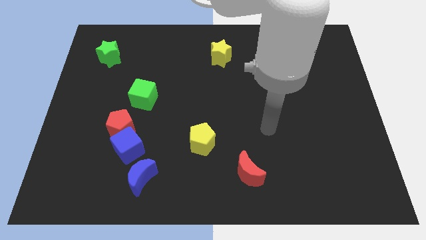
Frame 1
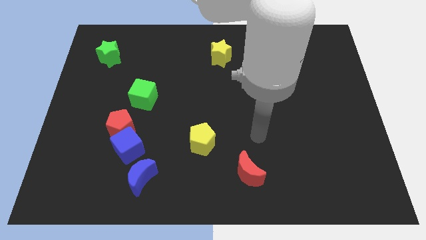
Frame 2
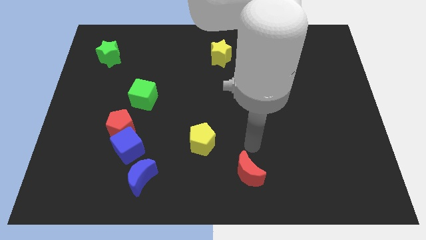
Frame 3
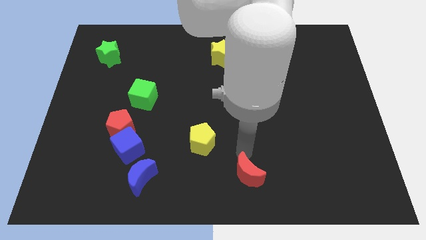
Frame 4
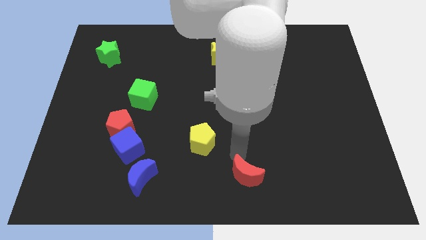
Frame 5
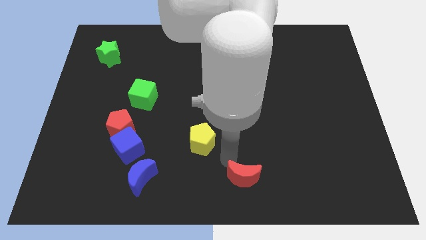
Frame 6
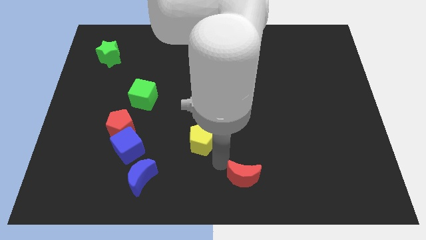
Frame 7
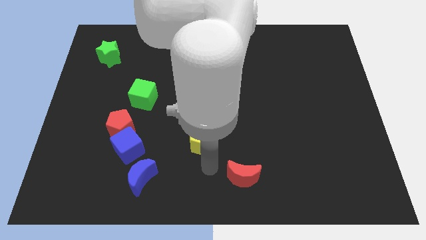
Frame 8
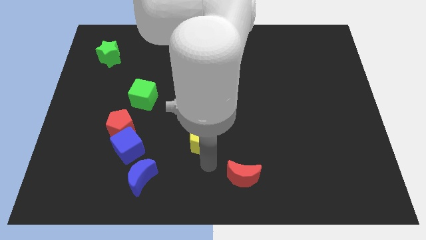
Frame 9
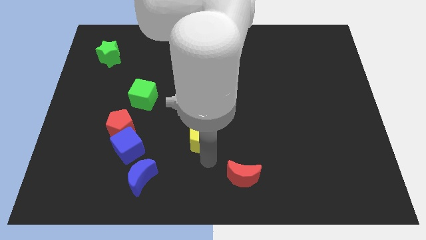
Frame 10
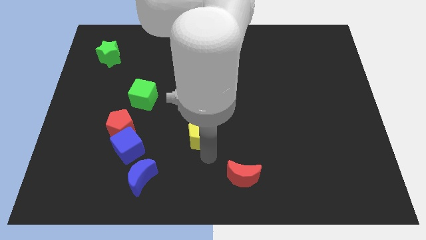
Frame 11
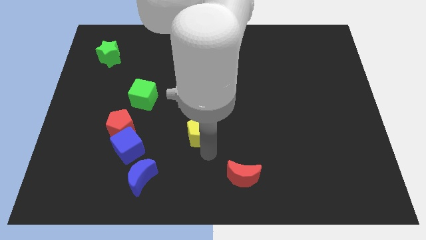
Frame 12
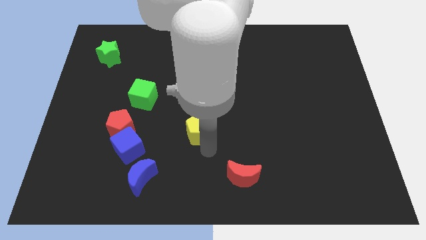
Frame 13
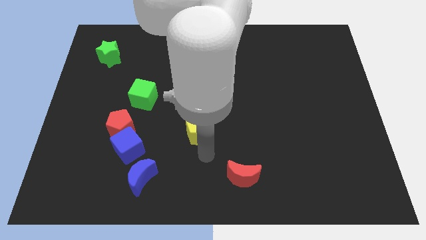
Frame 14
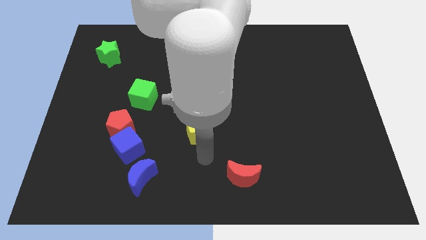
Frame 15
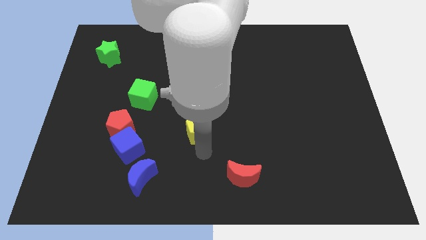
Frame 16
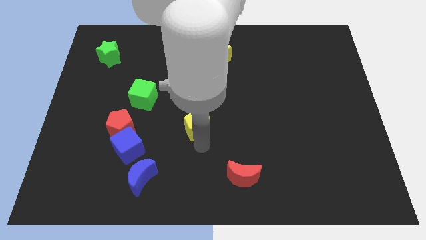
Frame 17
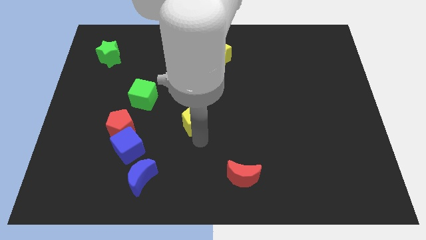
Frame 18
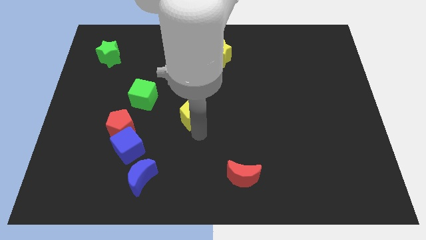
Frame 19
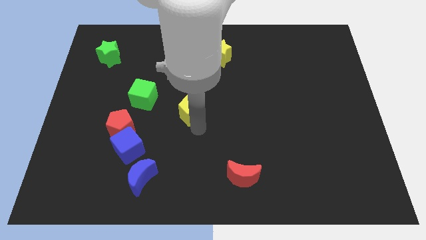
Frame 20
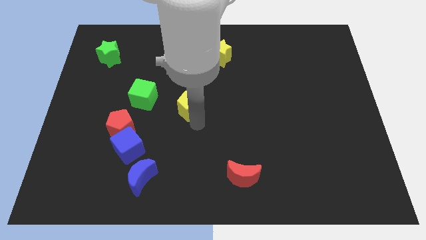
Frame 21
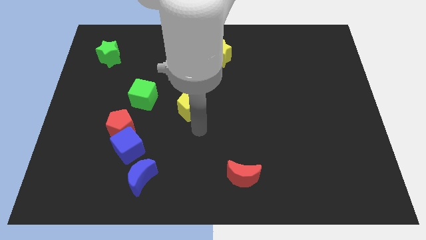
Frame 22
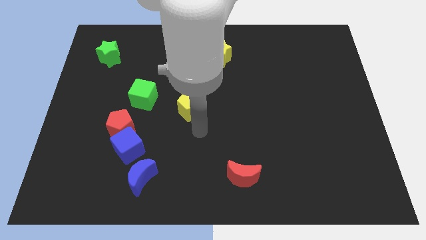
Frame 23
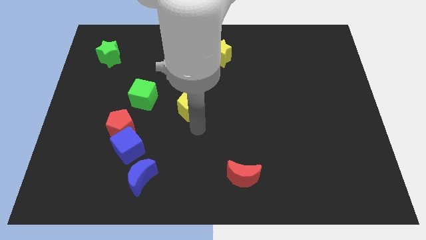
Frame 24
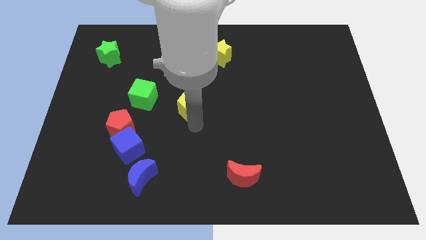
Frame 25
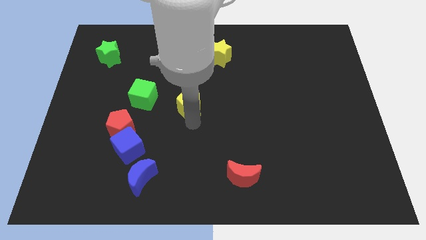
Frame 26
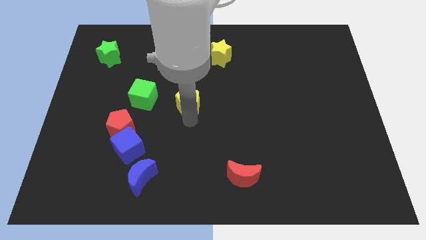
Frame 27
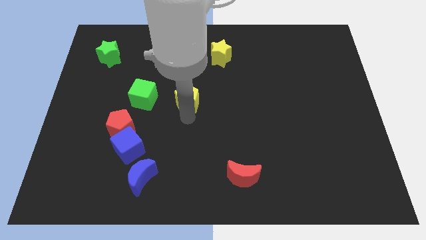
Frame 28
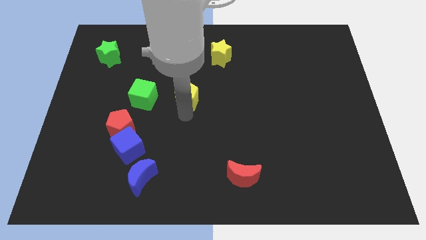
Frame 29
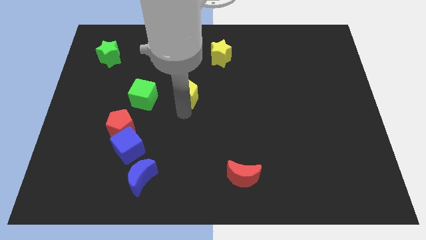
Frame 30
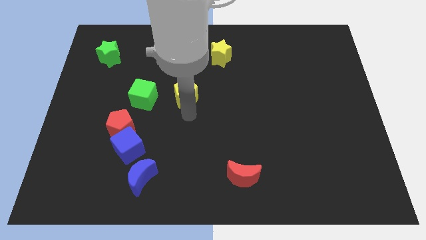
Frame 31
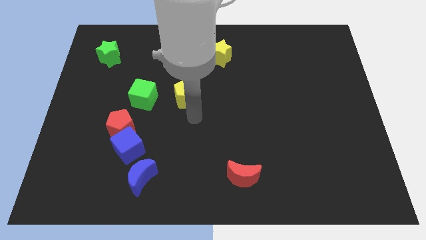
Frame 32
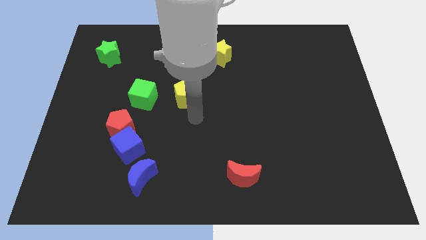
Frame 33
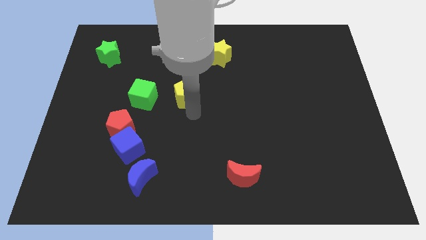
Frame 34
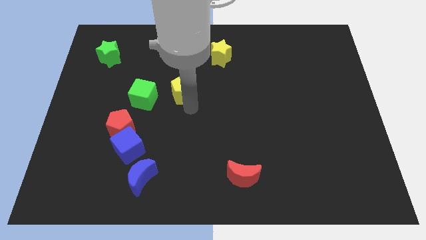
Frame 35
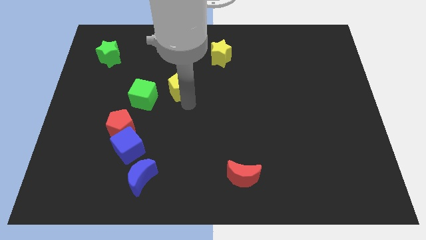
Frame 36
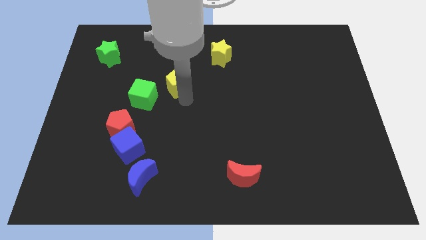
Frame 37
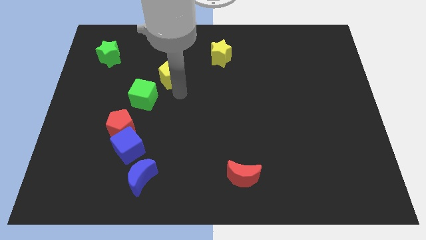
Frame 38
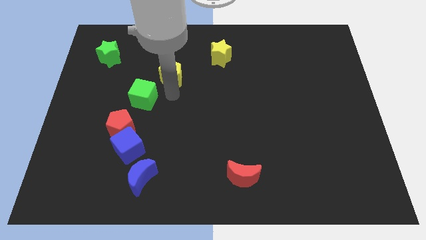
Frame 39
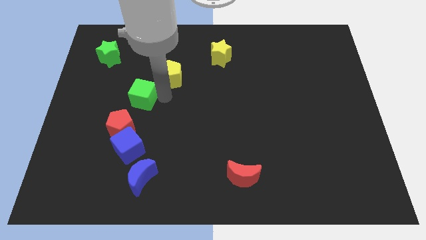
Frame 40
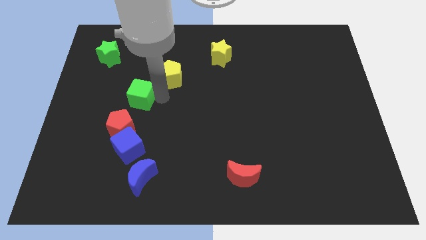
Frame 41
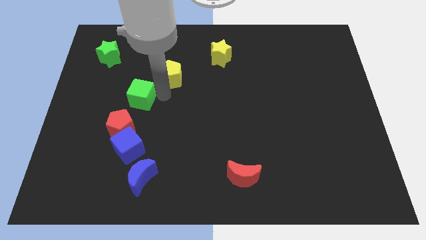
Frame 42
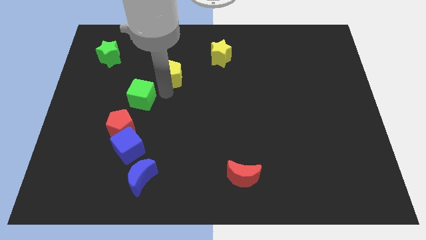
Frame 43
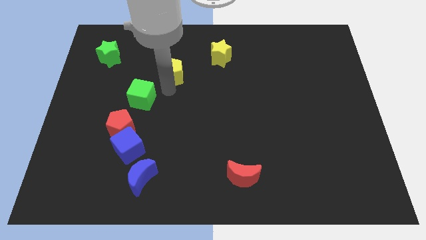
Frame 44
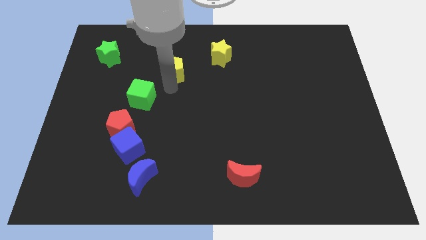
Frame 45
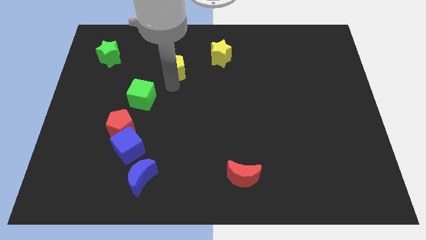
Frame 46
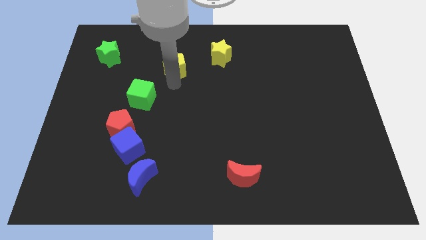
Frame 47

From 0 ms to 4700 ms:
move the yellow pentagon to the left of the yellow star

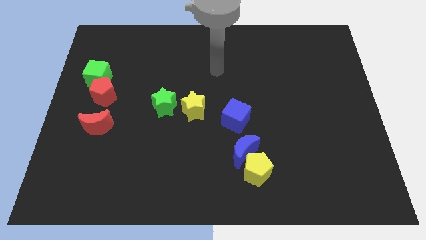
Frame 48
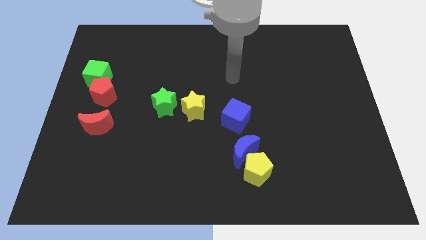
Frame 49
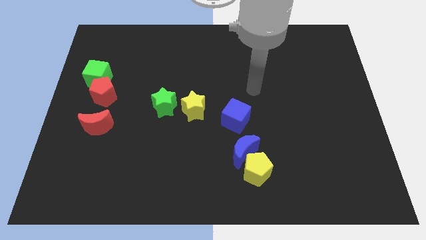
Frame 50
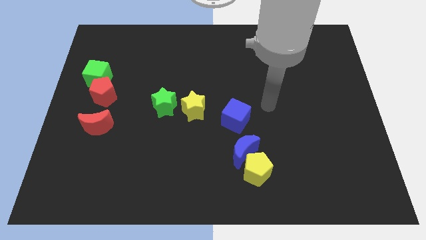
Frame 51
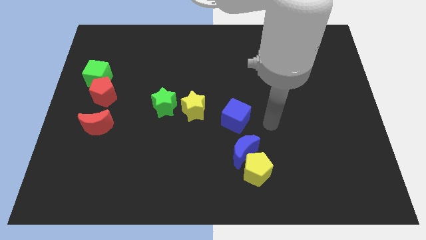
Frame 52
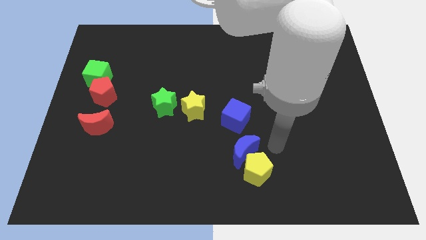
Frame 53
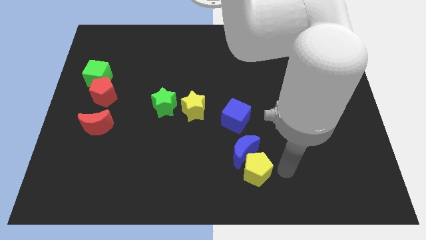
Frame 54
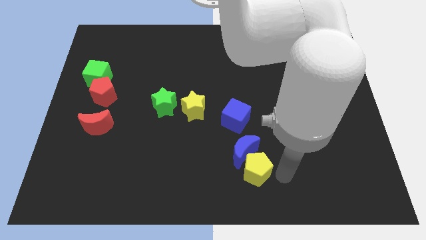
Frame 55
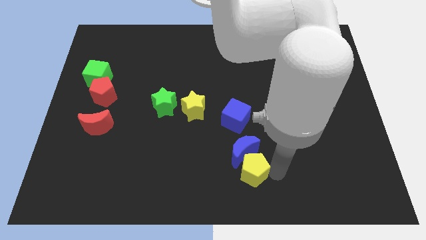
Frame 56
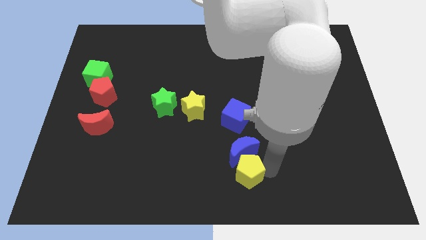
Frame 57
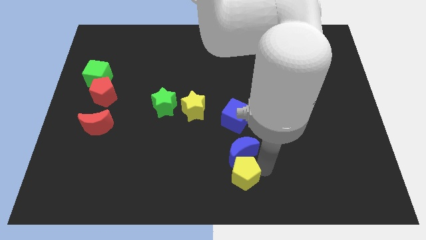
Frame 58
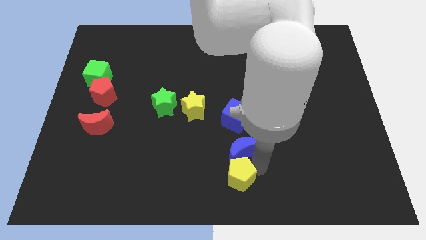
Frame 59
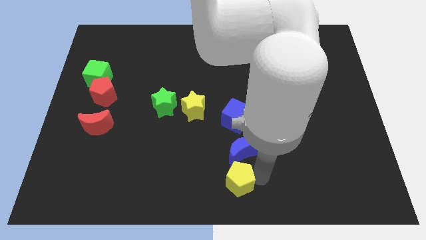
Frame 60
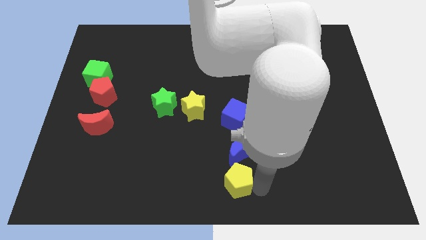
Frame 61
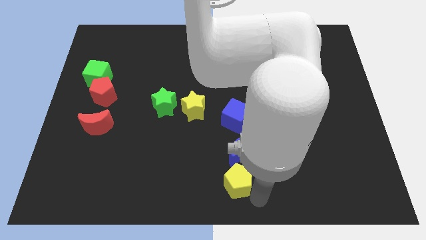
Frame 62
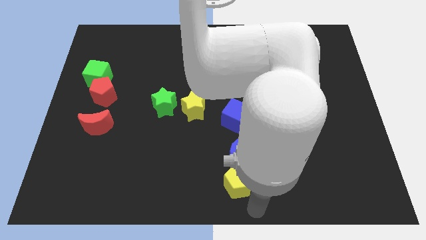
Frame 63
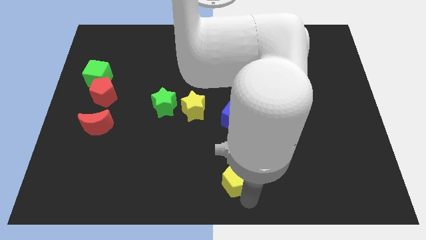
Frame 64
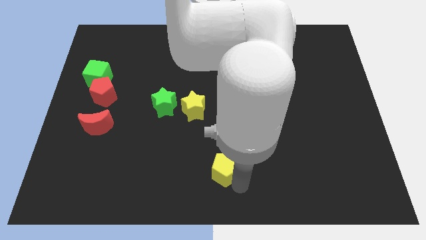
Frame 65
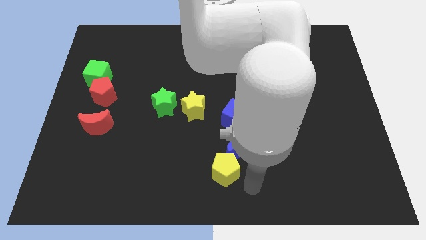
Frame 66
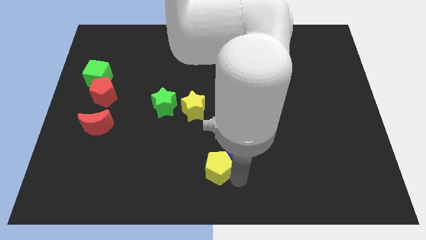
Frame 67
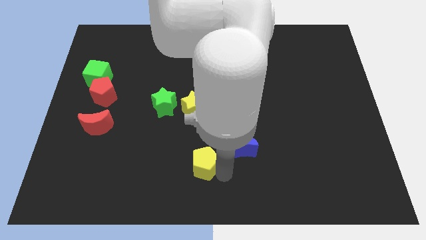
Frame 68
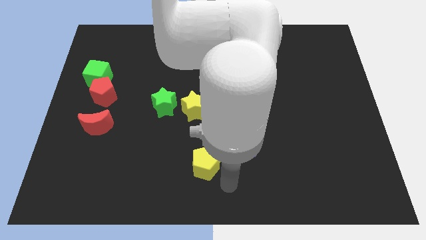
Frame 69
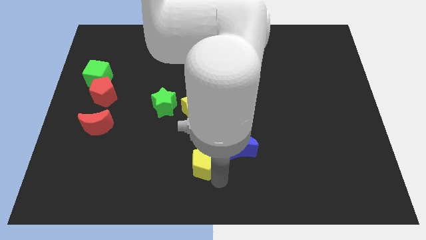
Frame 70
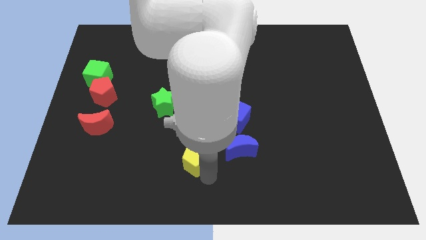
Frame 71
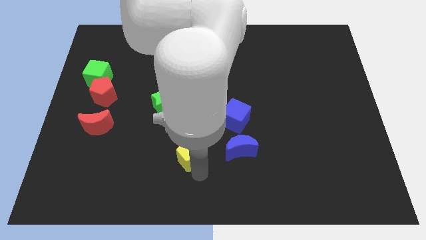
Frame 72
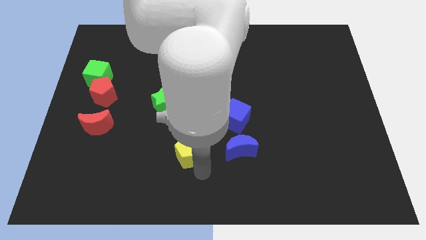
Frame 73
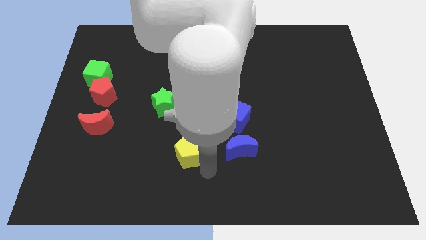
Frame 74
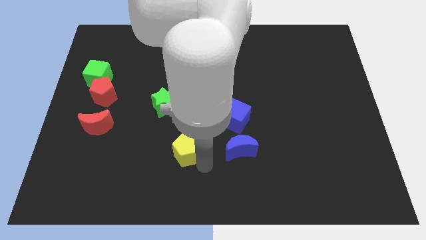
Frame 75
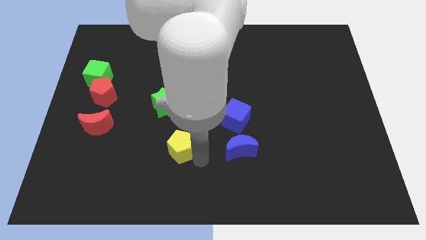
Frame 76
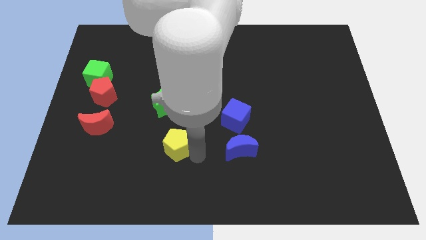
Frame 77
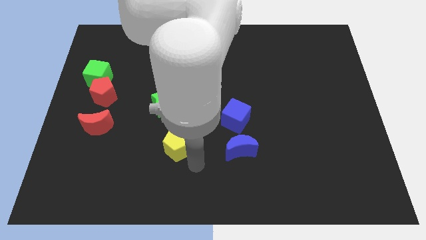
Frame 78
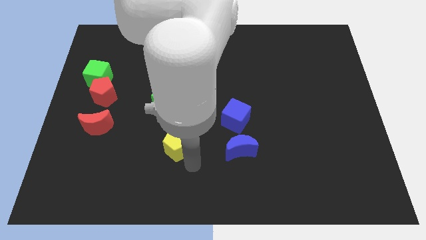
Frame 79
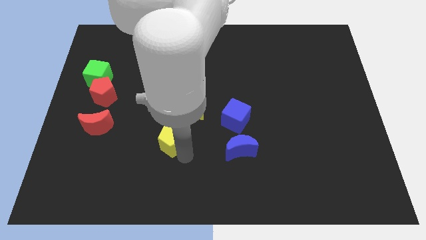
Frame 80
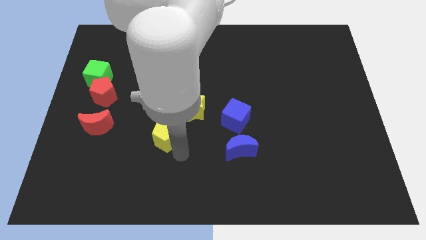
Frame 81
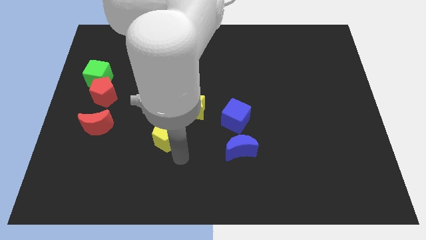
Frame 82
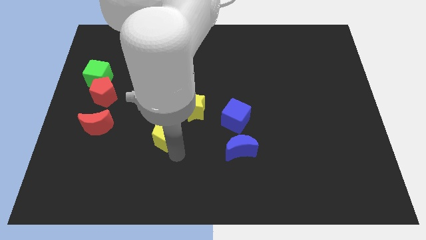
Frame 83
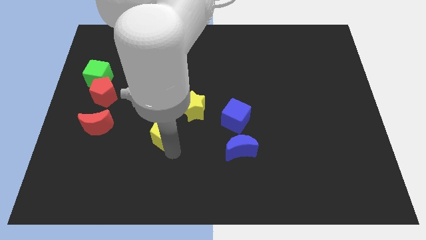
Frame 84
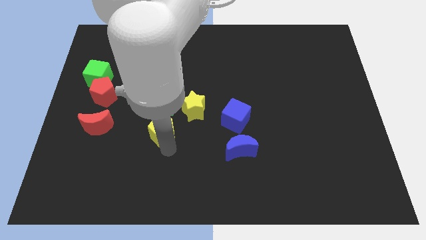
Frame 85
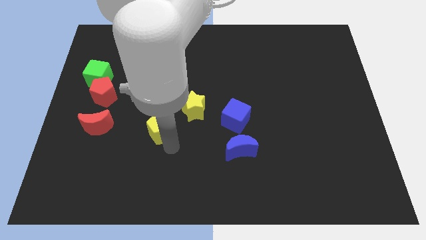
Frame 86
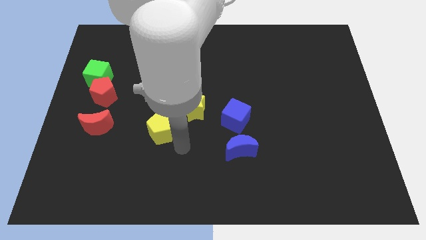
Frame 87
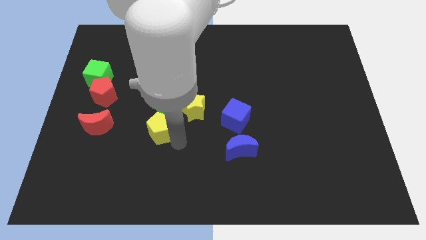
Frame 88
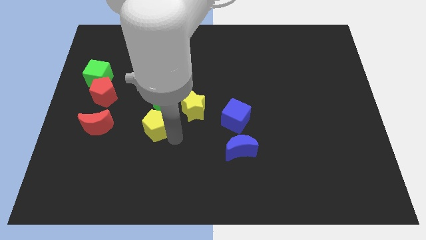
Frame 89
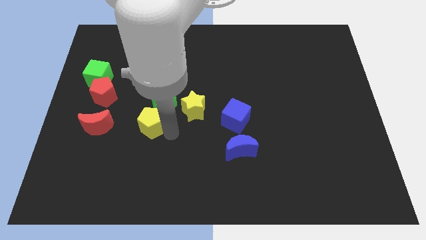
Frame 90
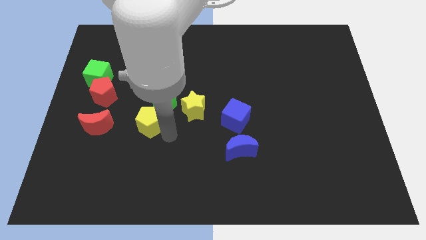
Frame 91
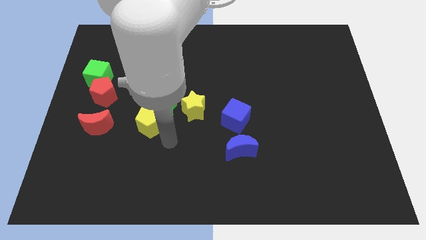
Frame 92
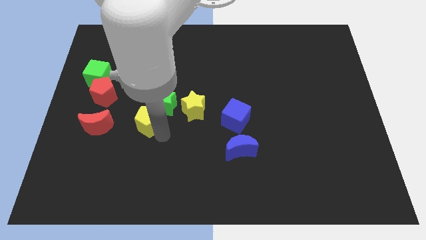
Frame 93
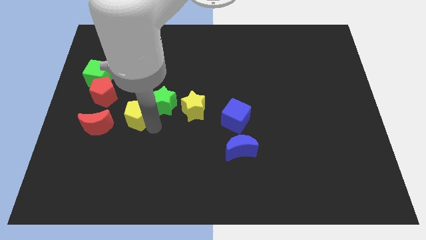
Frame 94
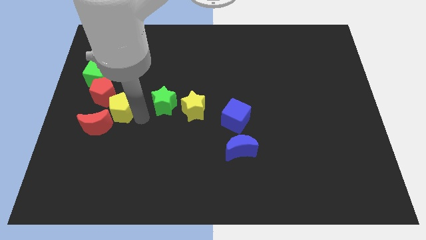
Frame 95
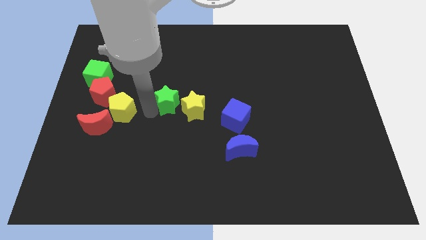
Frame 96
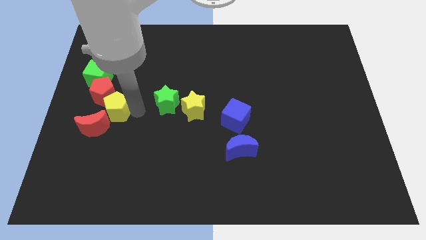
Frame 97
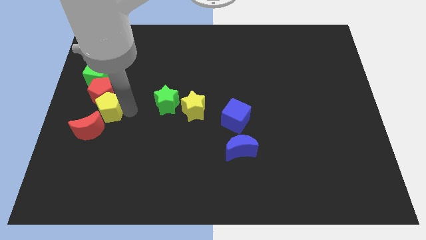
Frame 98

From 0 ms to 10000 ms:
put the yellow pentagon to the bottom of the green cube
